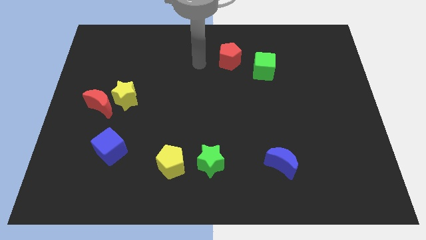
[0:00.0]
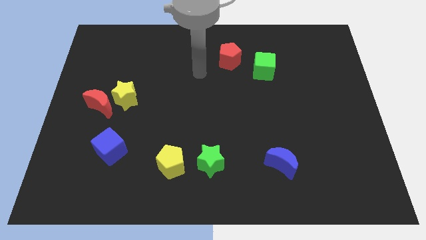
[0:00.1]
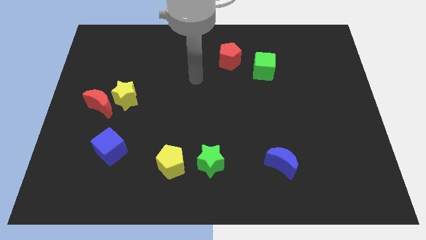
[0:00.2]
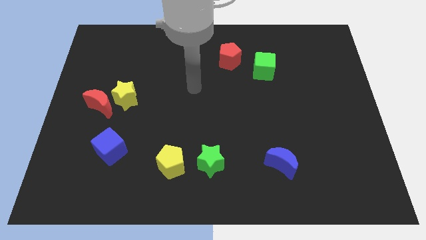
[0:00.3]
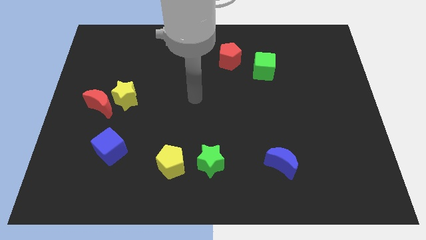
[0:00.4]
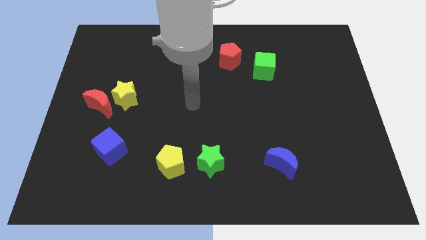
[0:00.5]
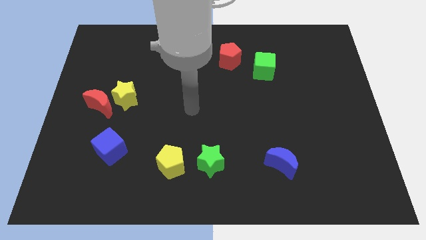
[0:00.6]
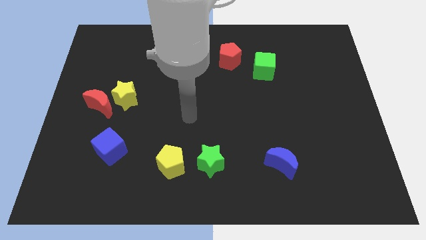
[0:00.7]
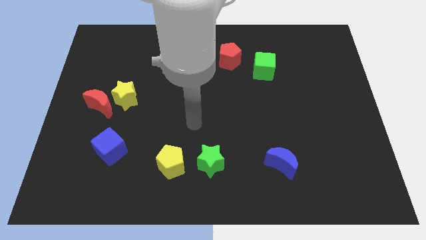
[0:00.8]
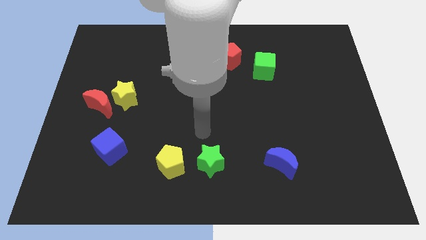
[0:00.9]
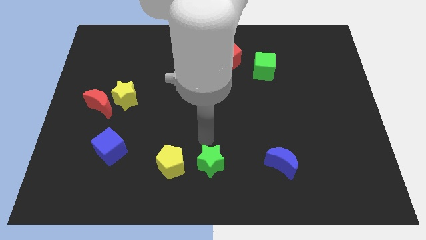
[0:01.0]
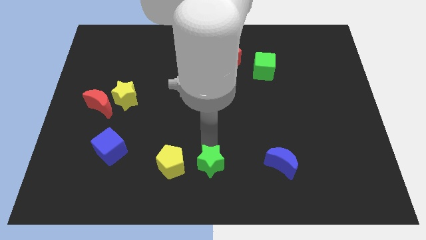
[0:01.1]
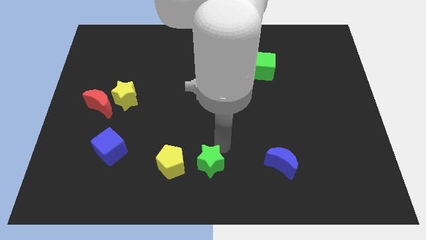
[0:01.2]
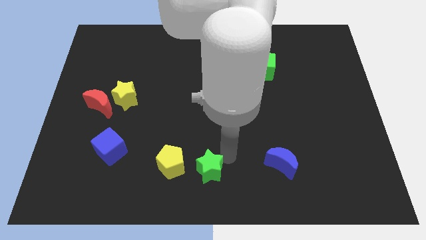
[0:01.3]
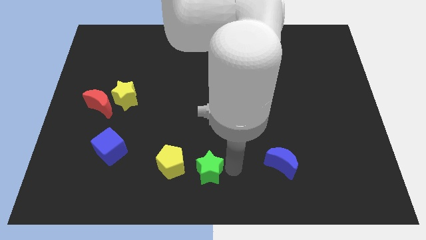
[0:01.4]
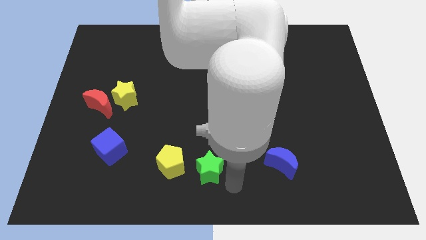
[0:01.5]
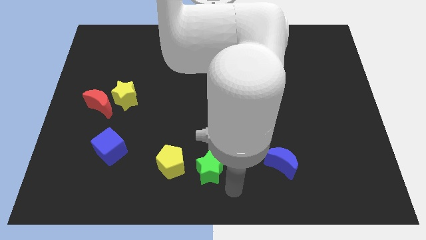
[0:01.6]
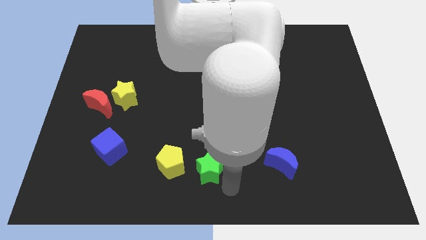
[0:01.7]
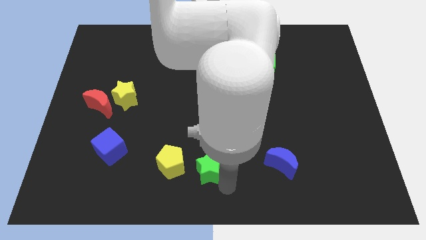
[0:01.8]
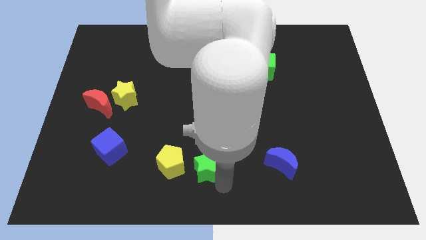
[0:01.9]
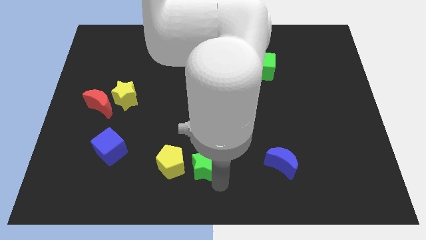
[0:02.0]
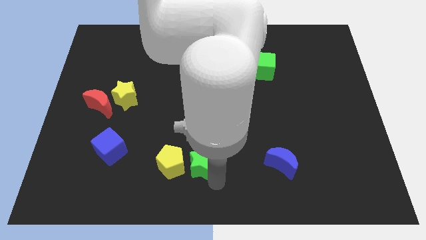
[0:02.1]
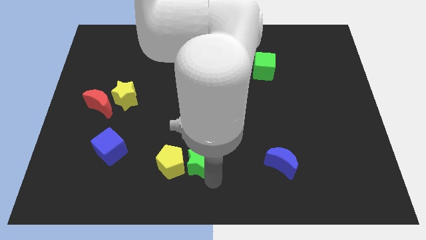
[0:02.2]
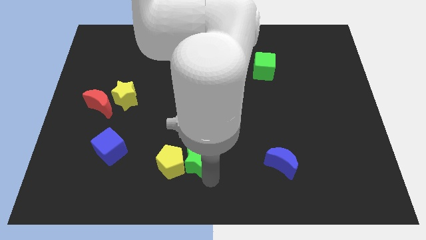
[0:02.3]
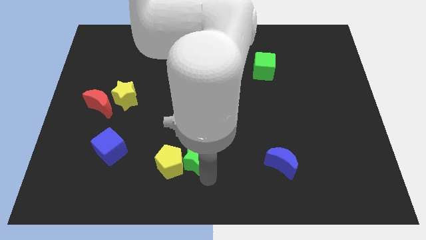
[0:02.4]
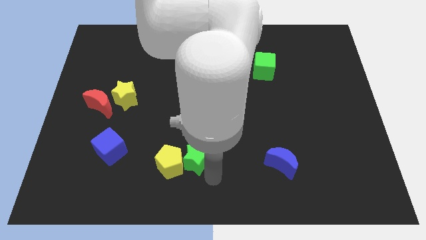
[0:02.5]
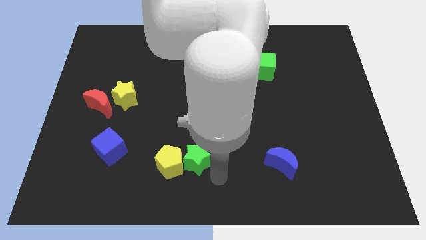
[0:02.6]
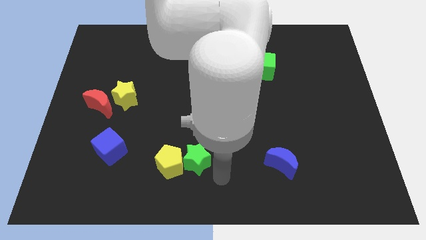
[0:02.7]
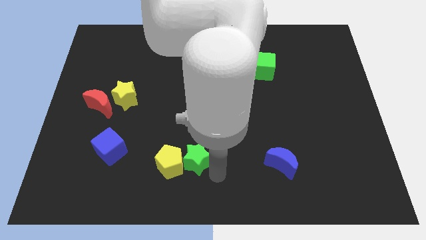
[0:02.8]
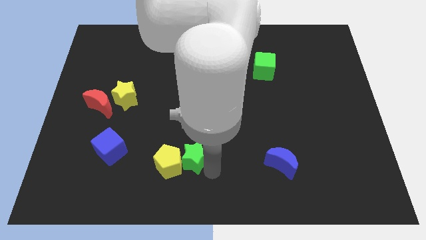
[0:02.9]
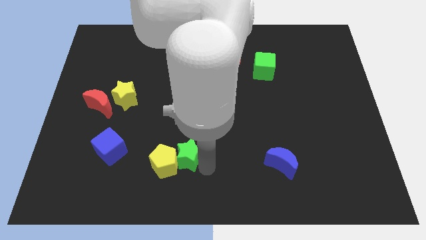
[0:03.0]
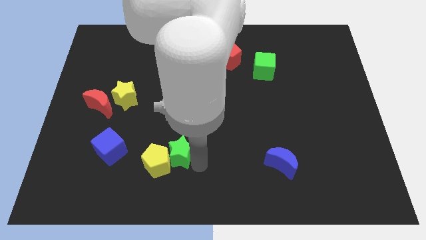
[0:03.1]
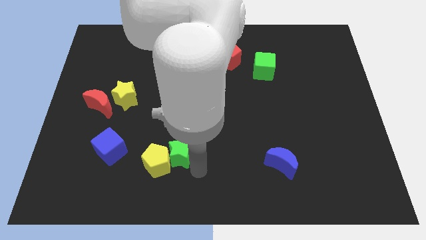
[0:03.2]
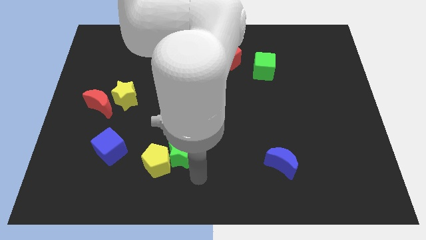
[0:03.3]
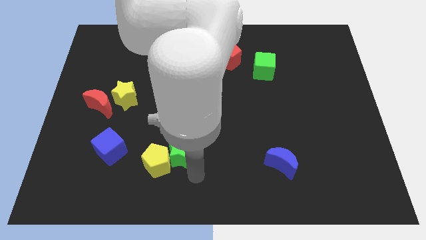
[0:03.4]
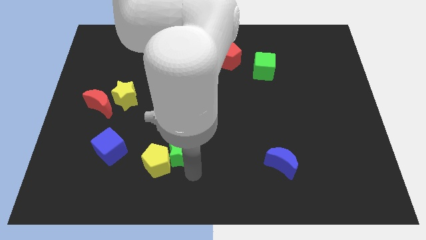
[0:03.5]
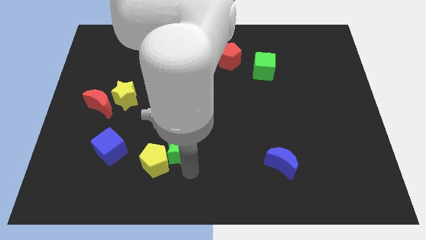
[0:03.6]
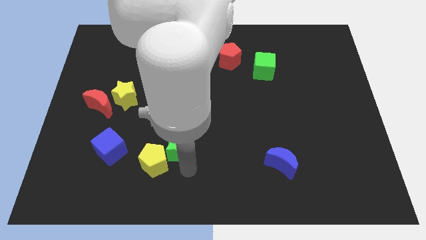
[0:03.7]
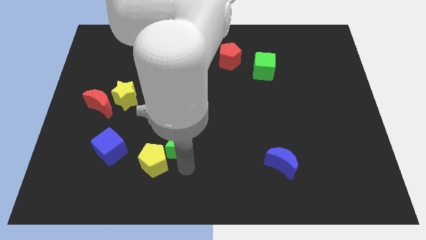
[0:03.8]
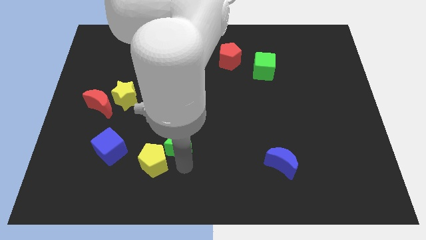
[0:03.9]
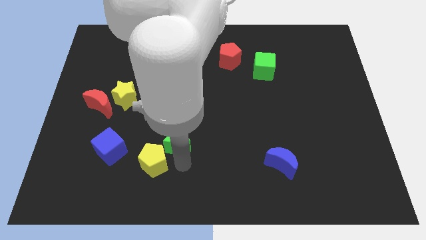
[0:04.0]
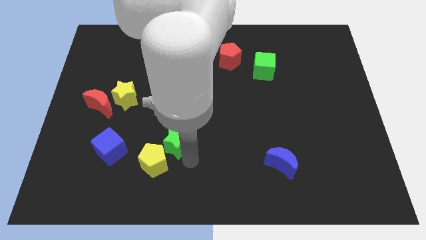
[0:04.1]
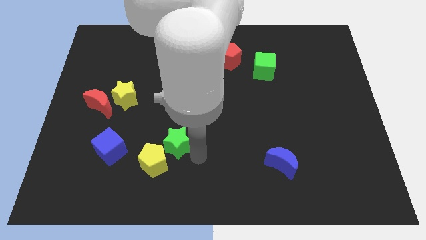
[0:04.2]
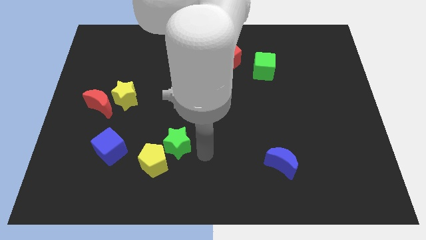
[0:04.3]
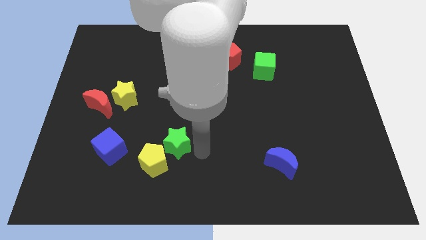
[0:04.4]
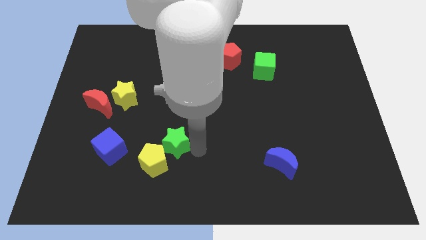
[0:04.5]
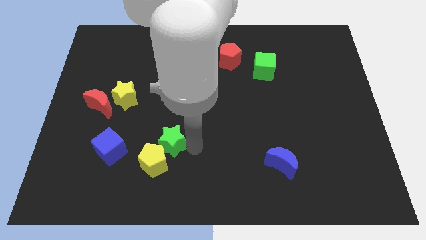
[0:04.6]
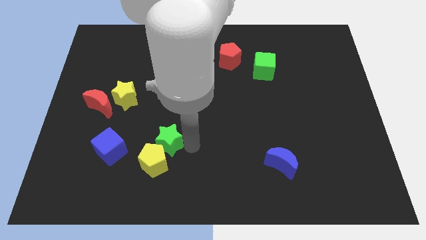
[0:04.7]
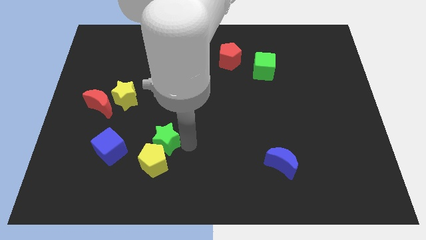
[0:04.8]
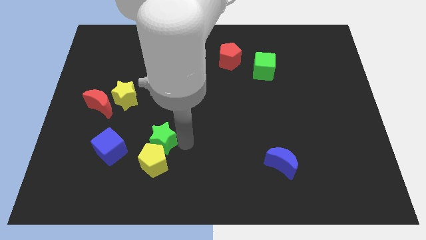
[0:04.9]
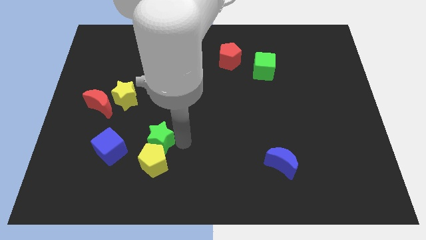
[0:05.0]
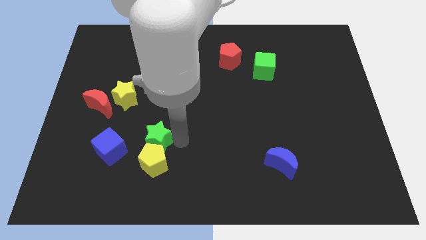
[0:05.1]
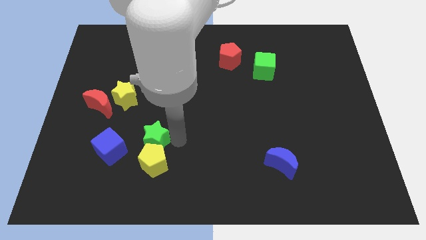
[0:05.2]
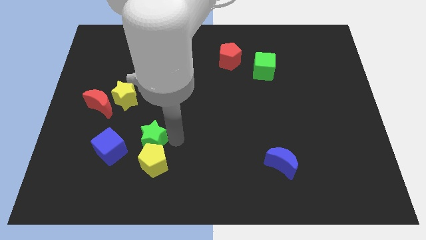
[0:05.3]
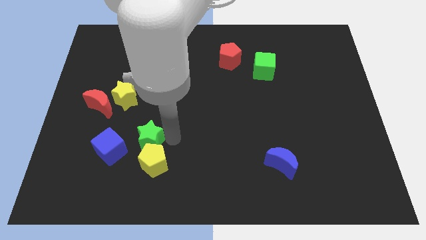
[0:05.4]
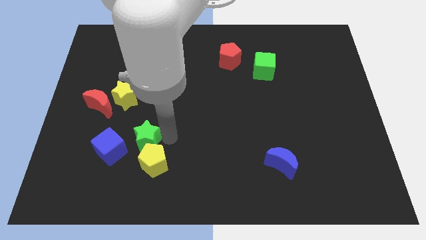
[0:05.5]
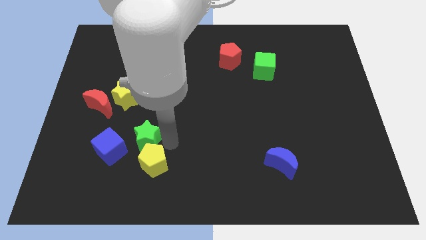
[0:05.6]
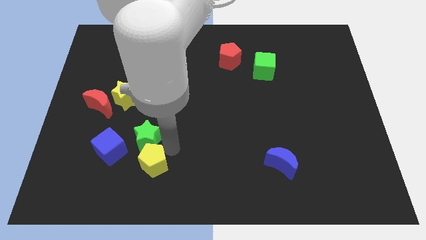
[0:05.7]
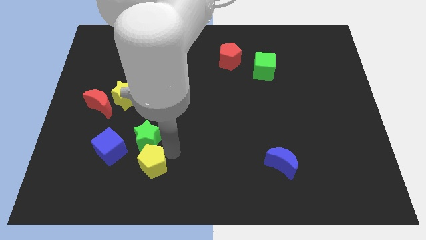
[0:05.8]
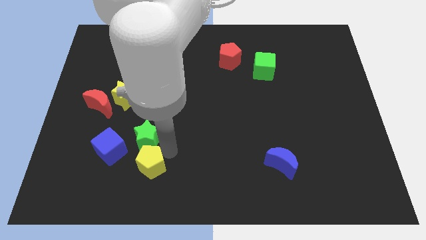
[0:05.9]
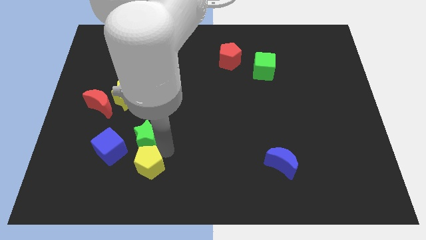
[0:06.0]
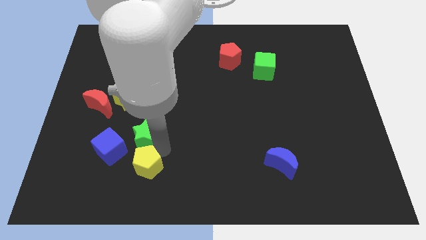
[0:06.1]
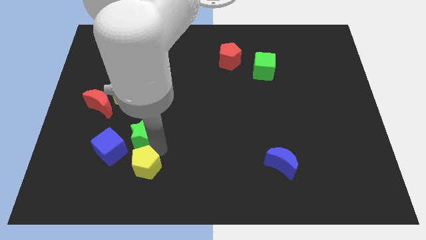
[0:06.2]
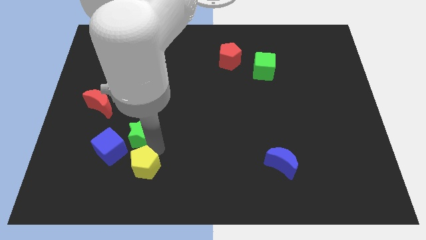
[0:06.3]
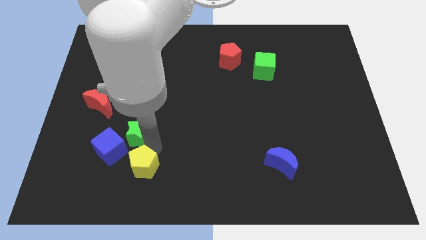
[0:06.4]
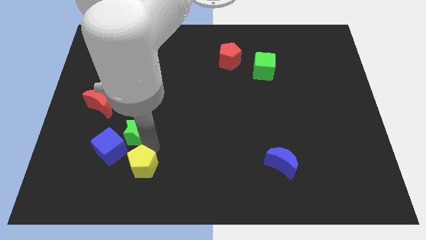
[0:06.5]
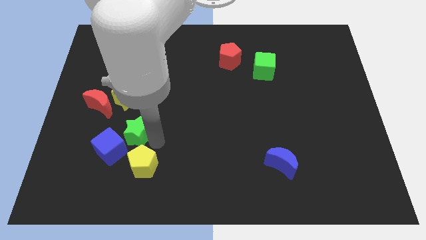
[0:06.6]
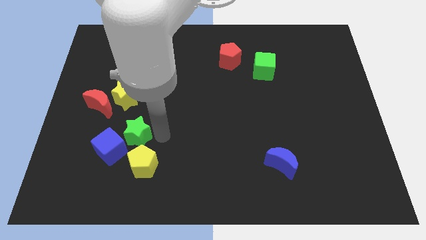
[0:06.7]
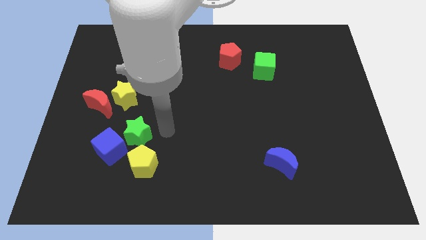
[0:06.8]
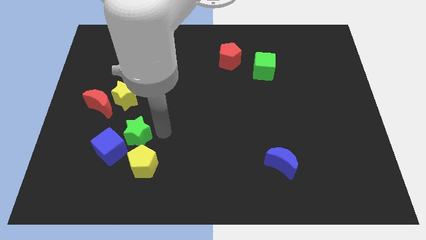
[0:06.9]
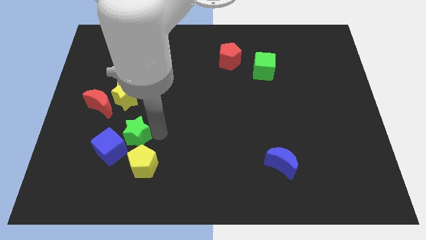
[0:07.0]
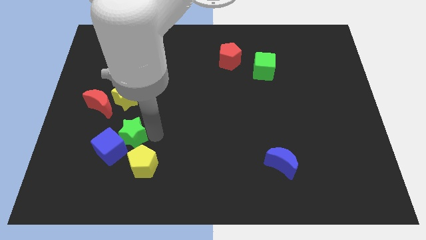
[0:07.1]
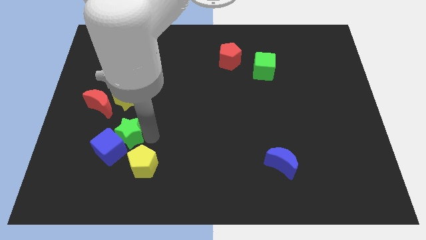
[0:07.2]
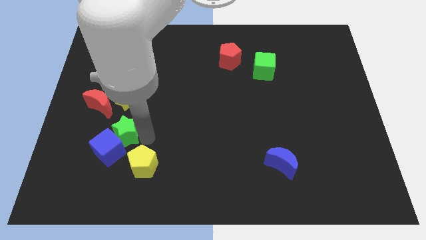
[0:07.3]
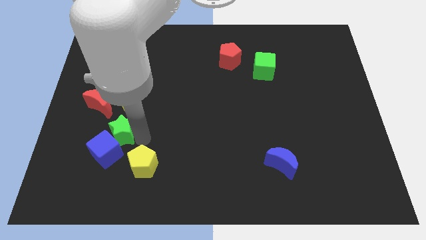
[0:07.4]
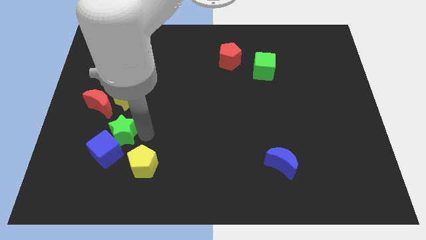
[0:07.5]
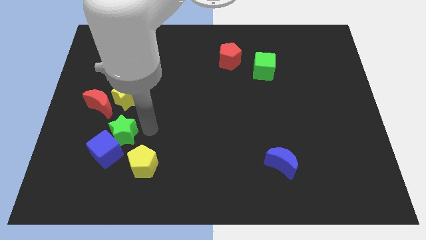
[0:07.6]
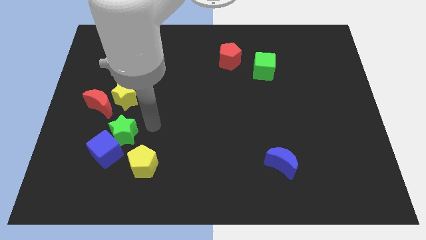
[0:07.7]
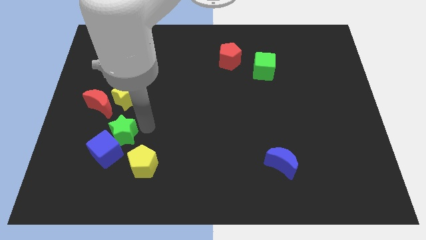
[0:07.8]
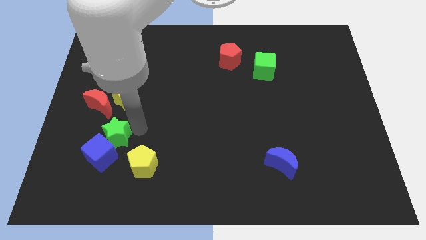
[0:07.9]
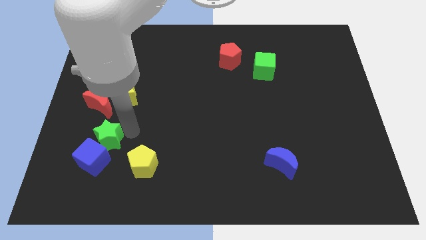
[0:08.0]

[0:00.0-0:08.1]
slide the green star below the red moon
